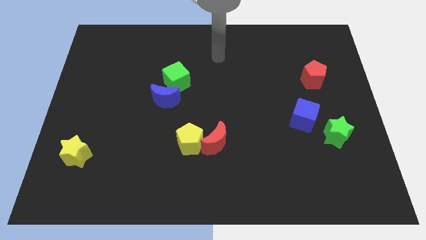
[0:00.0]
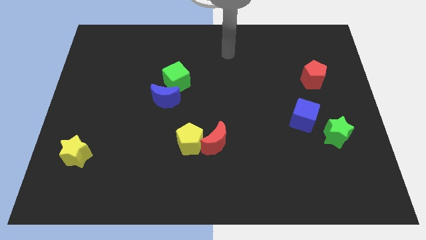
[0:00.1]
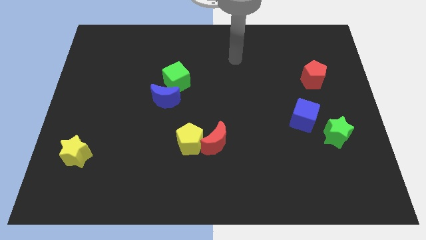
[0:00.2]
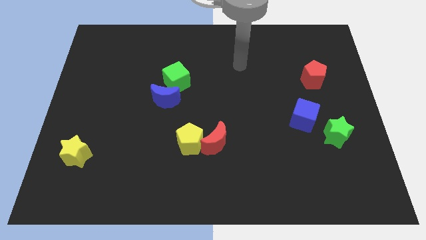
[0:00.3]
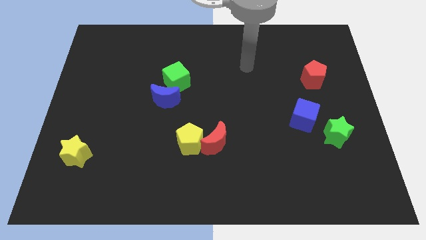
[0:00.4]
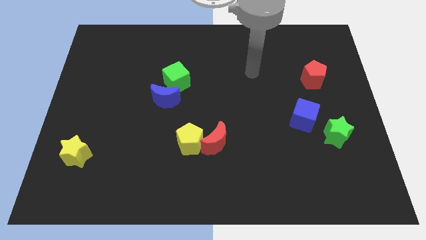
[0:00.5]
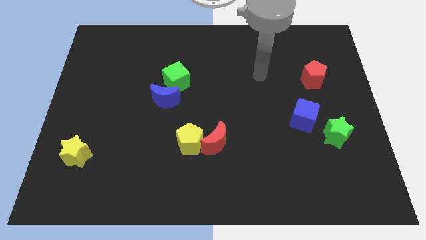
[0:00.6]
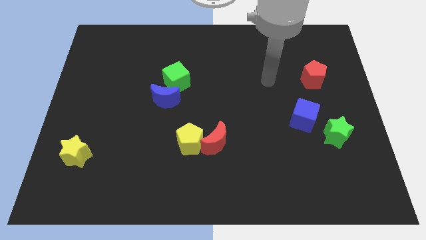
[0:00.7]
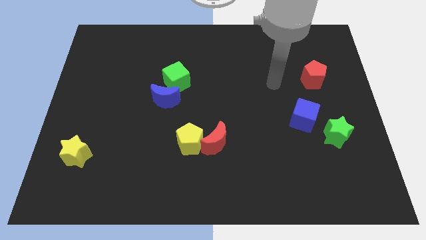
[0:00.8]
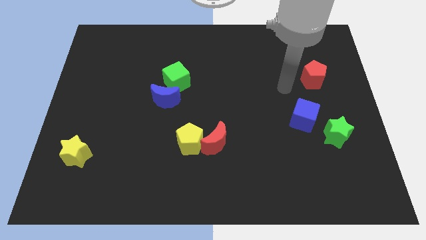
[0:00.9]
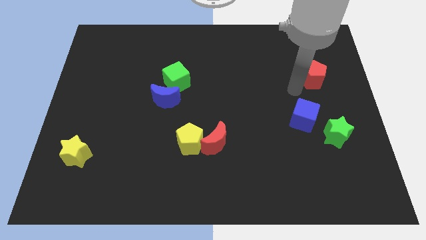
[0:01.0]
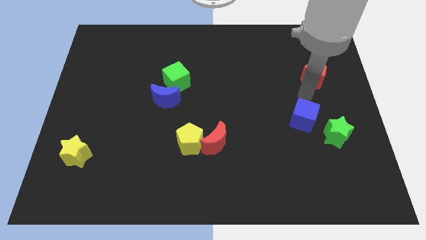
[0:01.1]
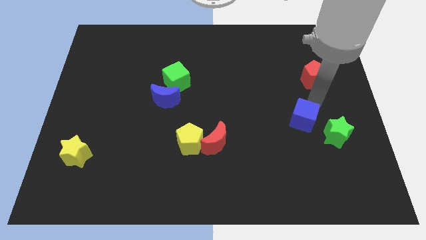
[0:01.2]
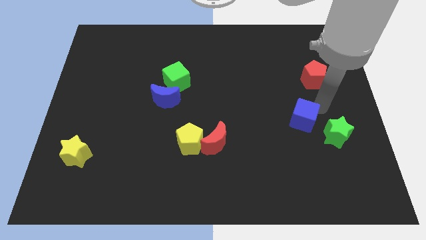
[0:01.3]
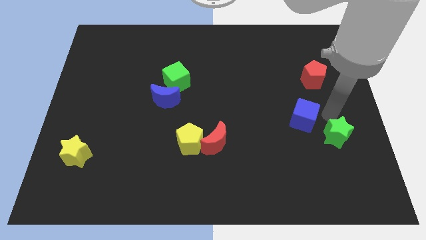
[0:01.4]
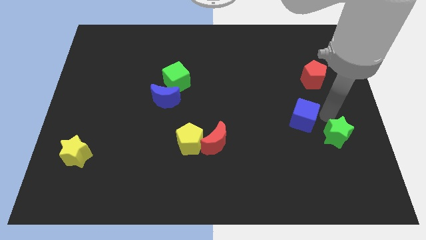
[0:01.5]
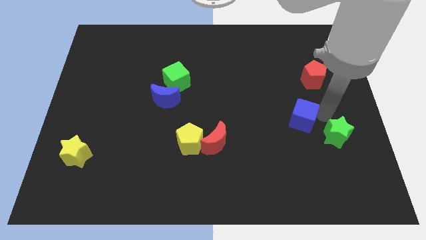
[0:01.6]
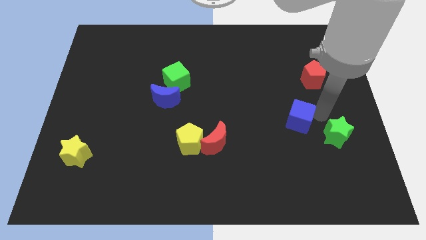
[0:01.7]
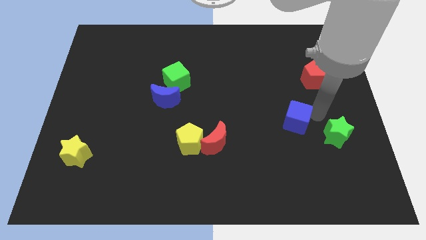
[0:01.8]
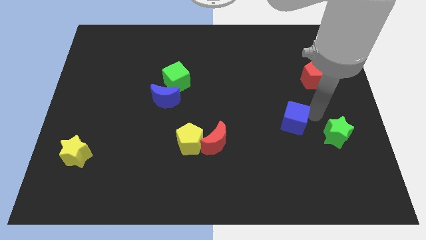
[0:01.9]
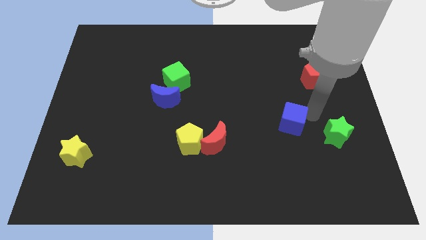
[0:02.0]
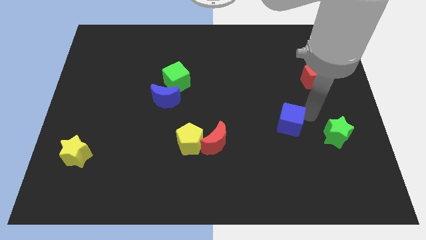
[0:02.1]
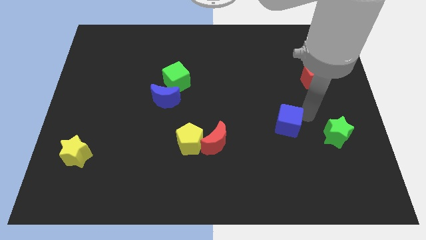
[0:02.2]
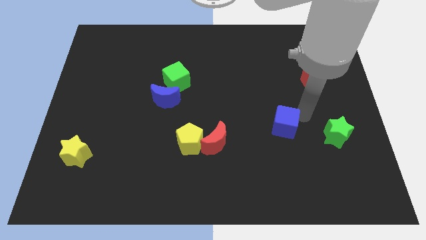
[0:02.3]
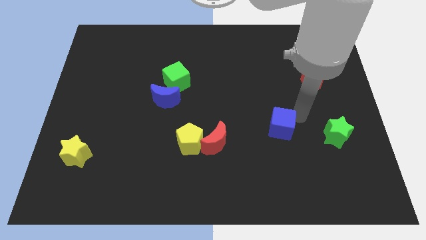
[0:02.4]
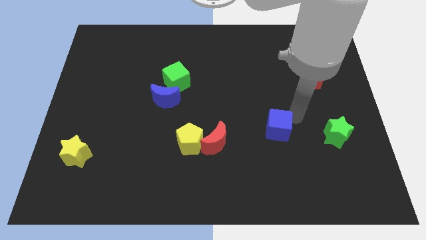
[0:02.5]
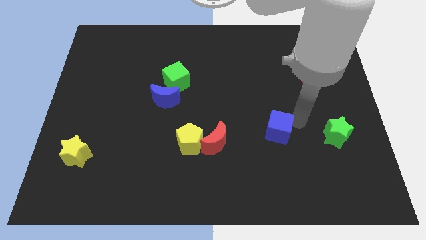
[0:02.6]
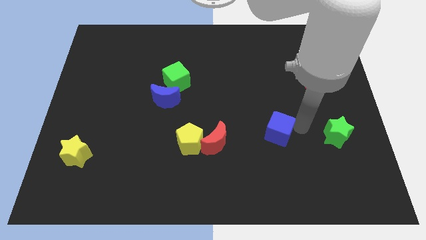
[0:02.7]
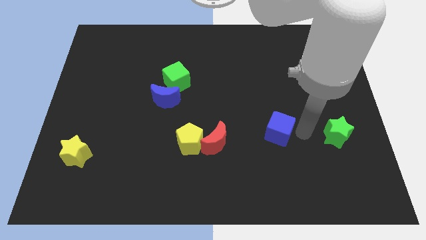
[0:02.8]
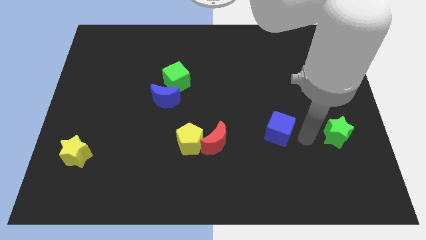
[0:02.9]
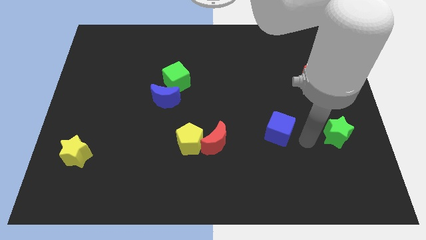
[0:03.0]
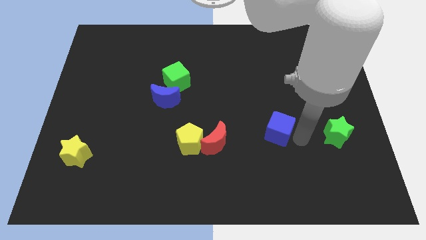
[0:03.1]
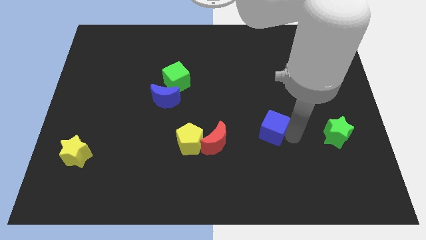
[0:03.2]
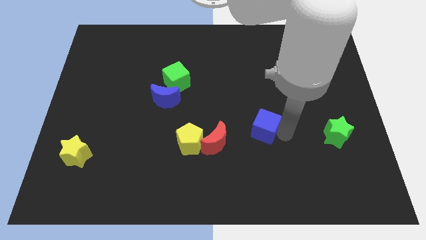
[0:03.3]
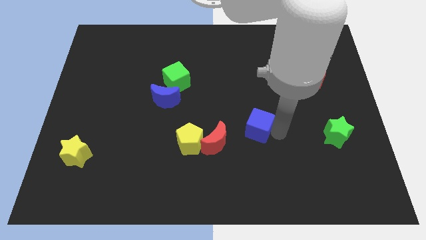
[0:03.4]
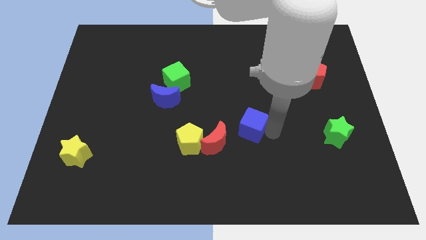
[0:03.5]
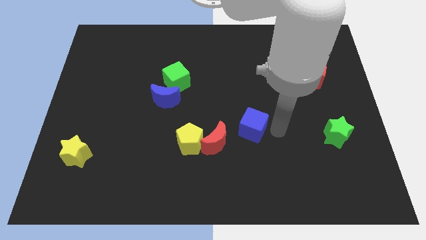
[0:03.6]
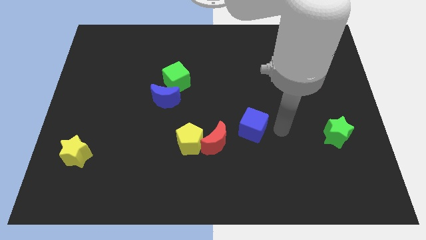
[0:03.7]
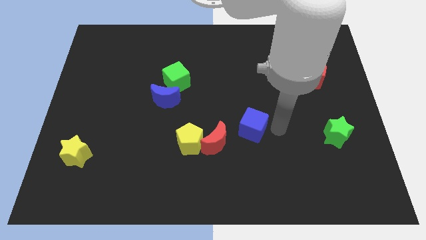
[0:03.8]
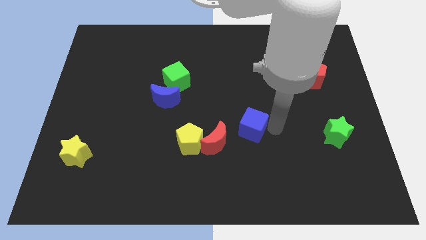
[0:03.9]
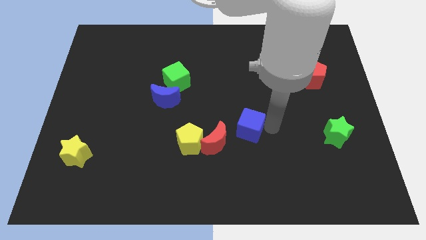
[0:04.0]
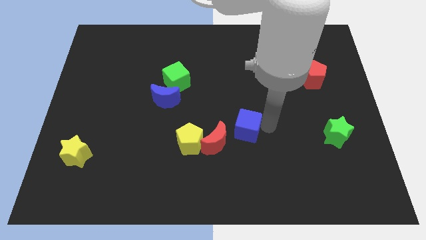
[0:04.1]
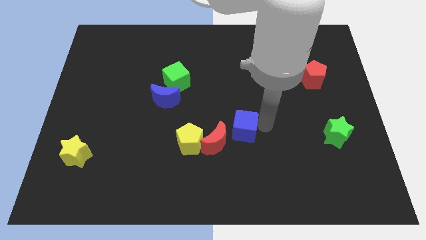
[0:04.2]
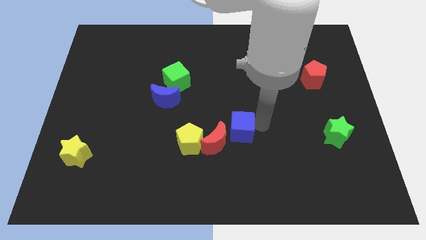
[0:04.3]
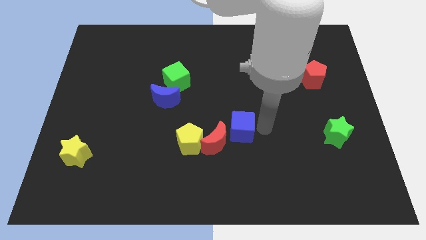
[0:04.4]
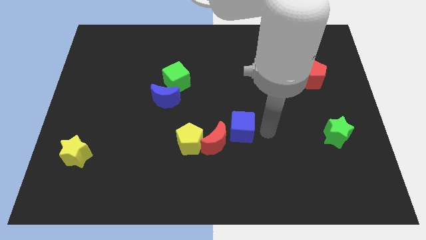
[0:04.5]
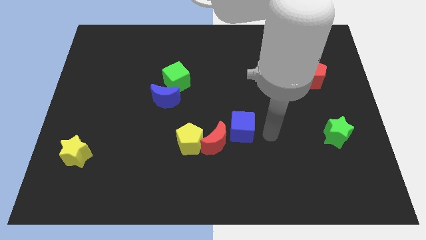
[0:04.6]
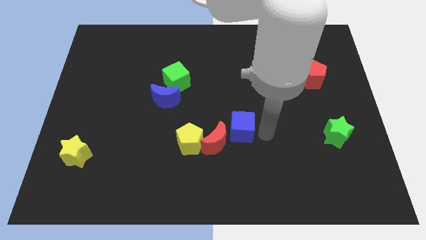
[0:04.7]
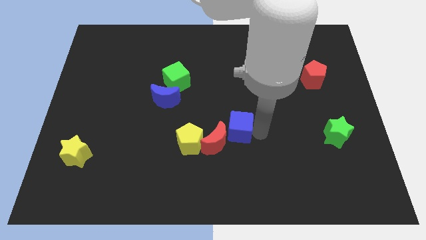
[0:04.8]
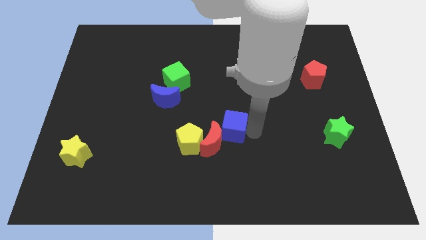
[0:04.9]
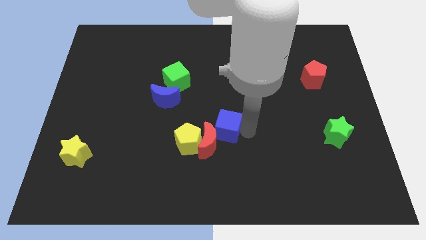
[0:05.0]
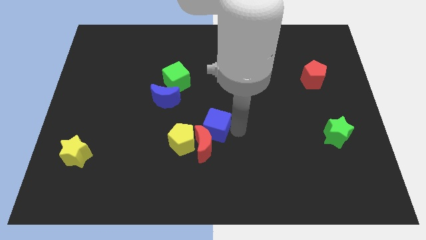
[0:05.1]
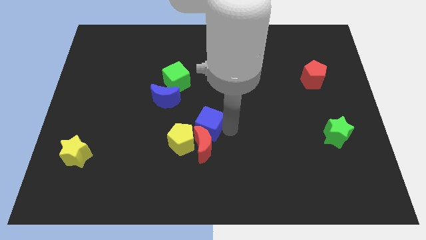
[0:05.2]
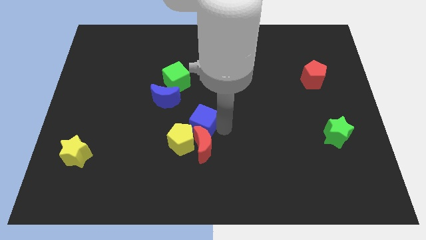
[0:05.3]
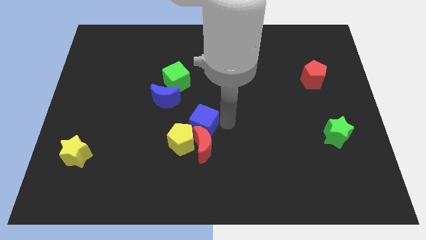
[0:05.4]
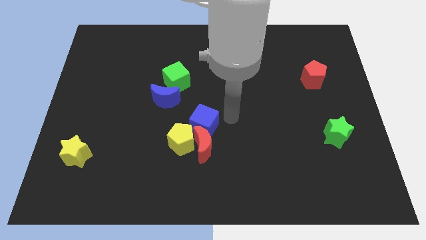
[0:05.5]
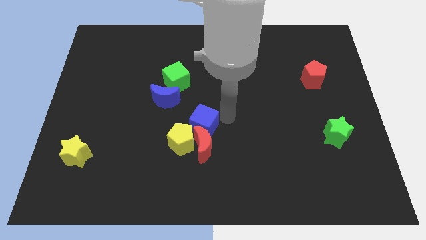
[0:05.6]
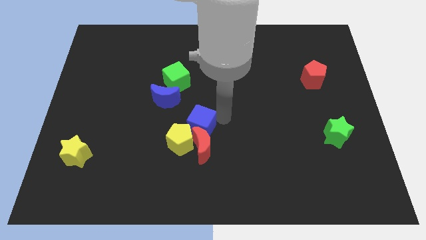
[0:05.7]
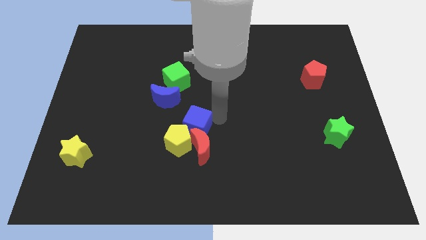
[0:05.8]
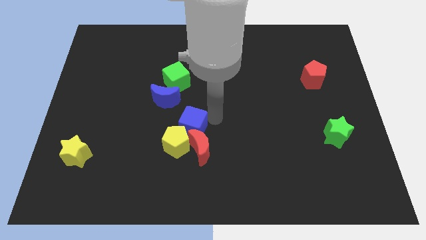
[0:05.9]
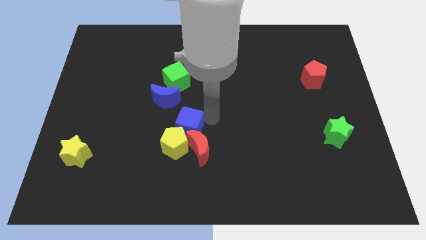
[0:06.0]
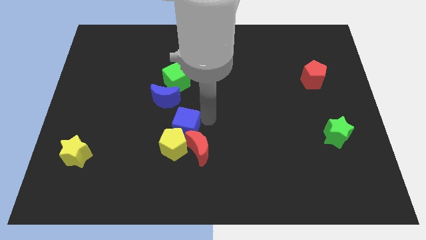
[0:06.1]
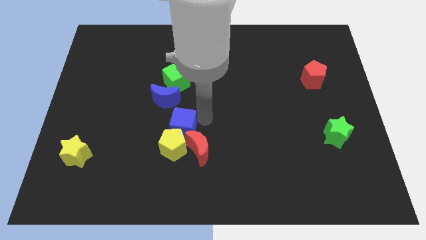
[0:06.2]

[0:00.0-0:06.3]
slide the blue cube to the bottom side of the blue moon

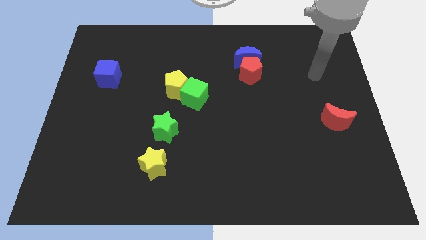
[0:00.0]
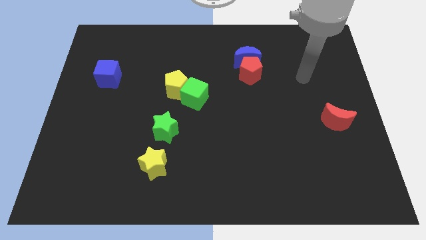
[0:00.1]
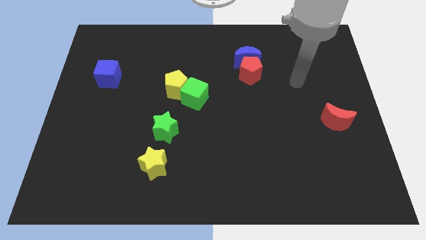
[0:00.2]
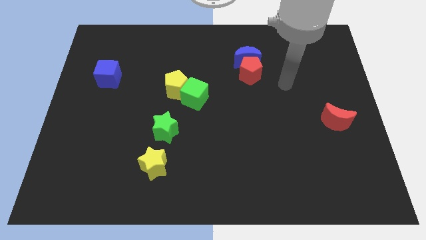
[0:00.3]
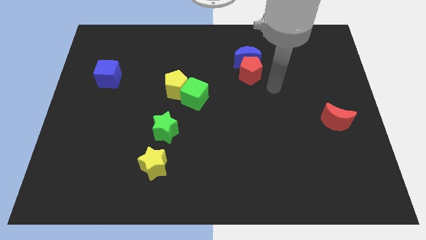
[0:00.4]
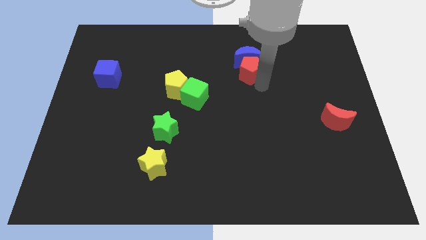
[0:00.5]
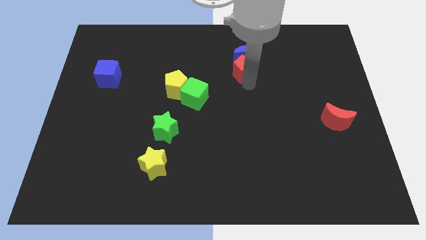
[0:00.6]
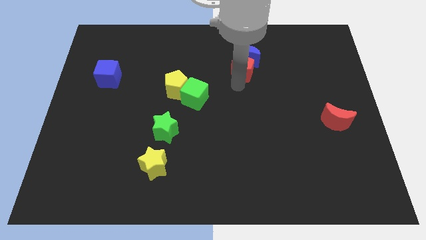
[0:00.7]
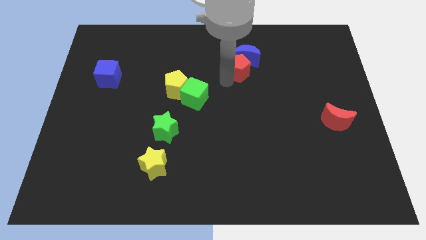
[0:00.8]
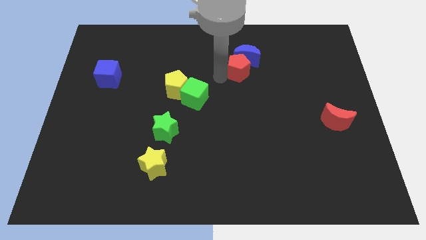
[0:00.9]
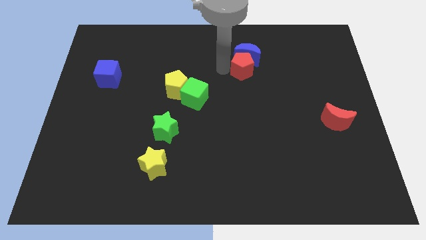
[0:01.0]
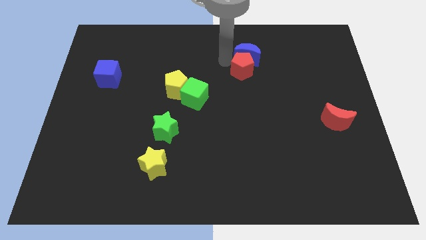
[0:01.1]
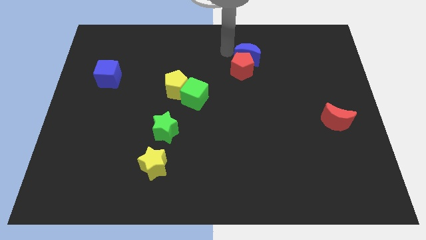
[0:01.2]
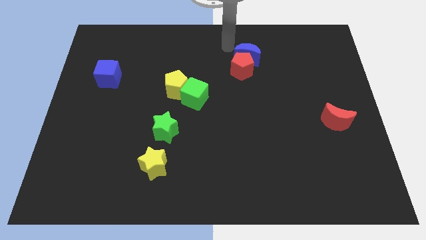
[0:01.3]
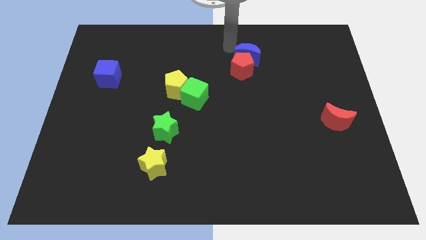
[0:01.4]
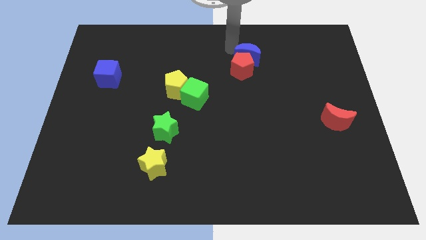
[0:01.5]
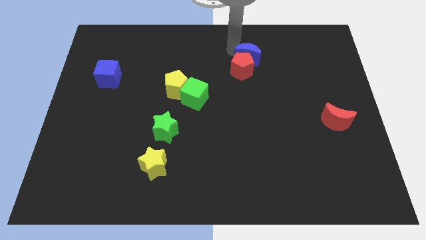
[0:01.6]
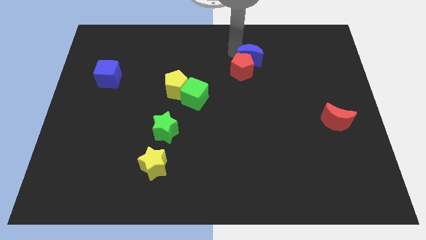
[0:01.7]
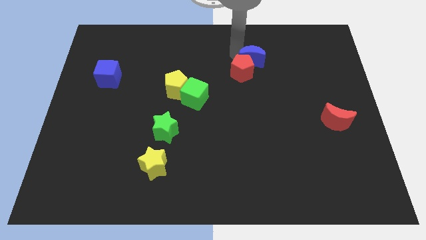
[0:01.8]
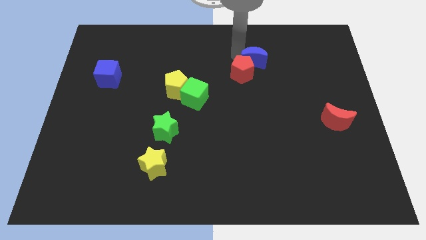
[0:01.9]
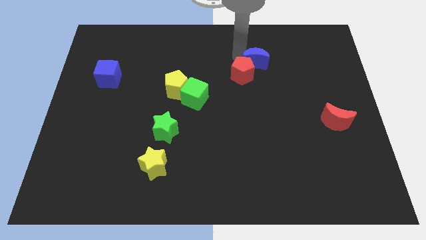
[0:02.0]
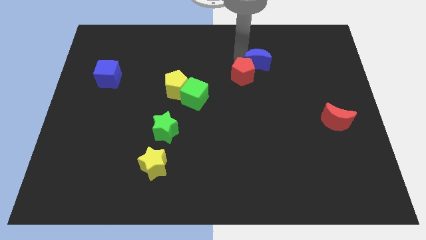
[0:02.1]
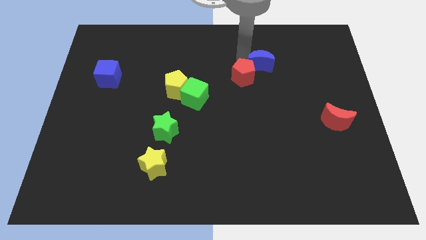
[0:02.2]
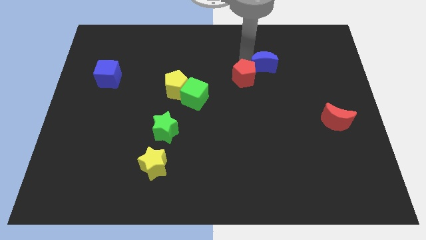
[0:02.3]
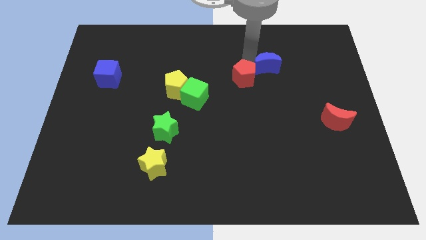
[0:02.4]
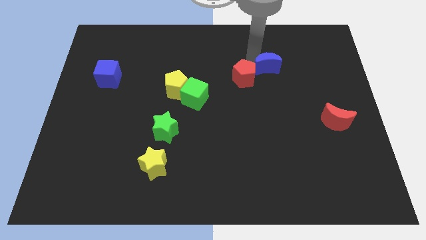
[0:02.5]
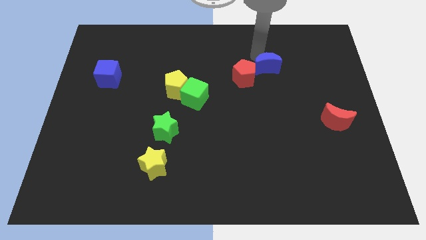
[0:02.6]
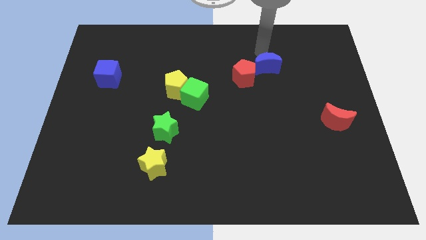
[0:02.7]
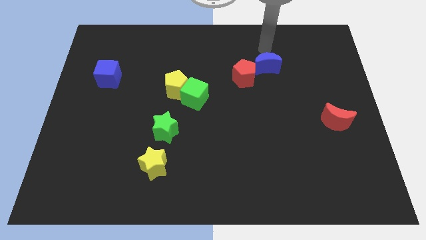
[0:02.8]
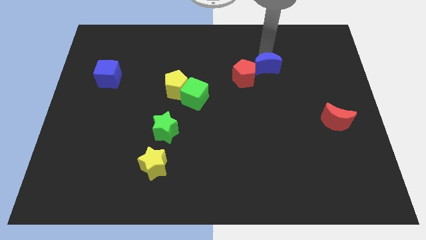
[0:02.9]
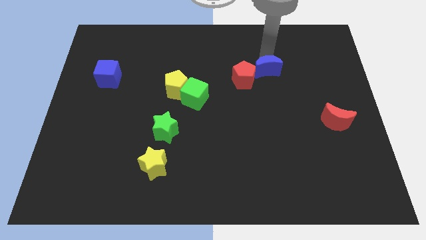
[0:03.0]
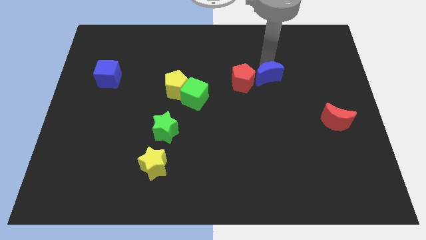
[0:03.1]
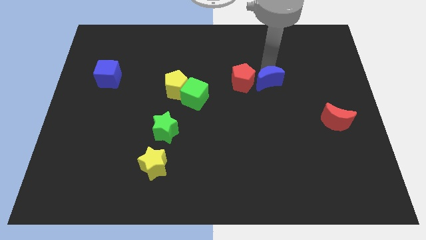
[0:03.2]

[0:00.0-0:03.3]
slide the blue moon diagonally down and to the right of the red pentagon
